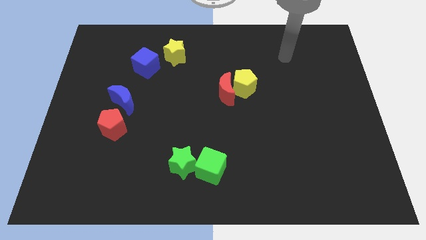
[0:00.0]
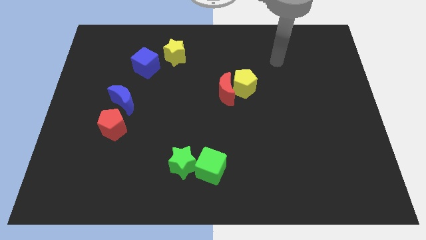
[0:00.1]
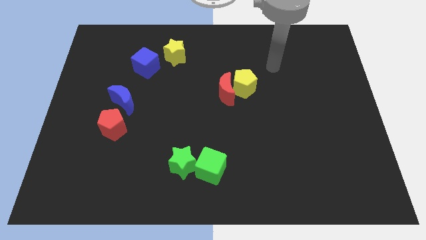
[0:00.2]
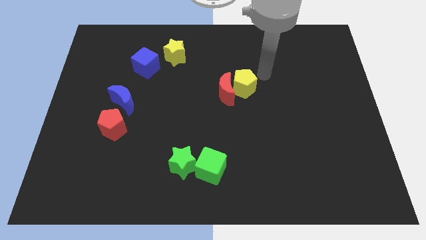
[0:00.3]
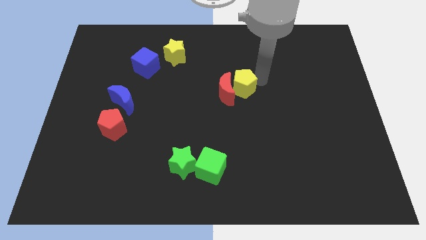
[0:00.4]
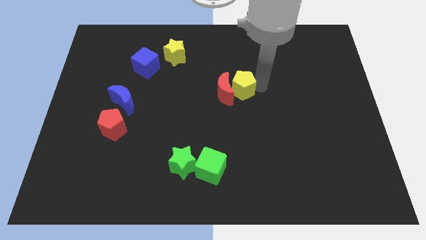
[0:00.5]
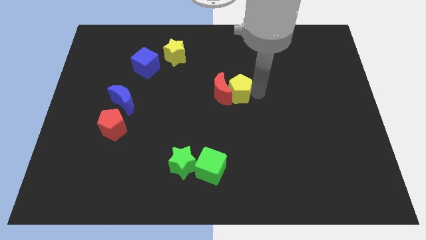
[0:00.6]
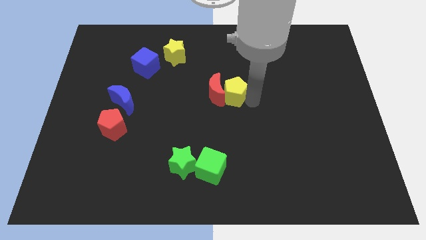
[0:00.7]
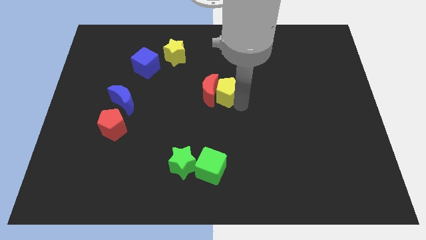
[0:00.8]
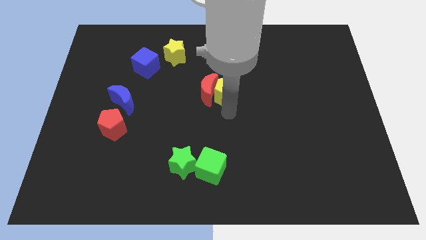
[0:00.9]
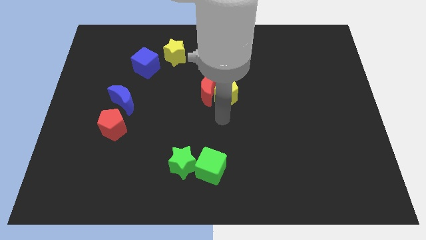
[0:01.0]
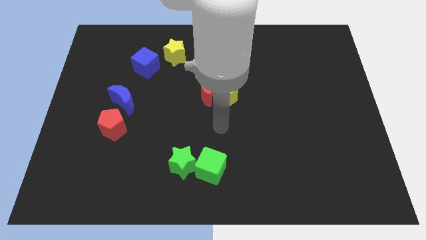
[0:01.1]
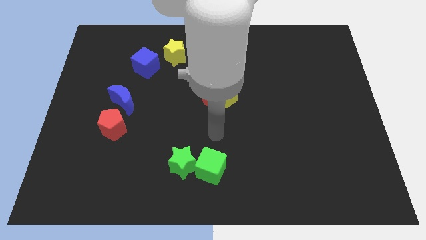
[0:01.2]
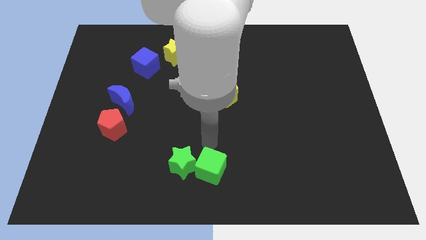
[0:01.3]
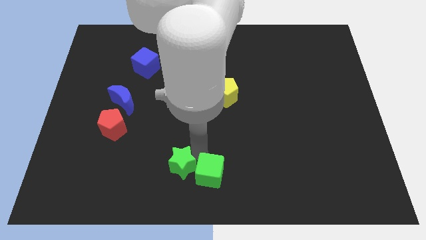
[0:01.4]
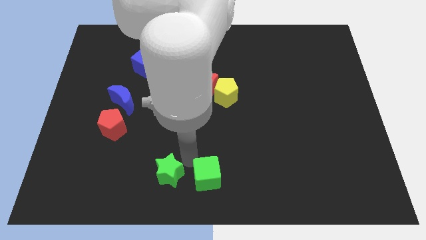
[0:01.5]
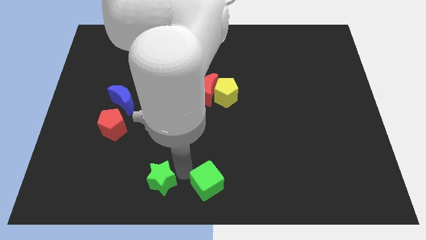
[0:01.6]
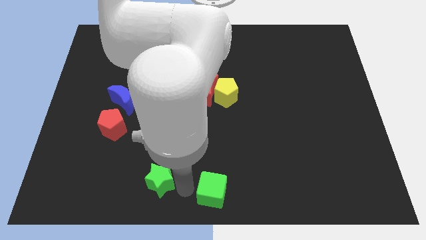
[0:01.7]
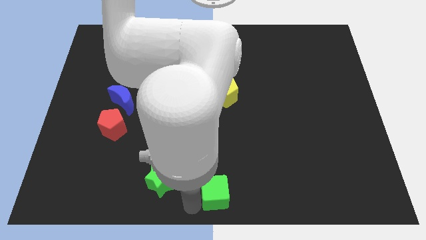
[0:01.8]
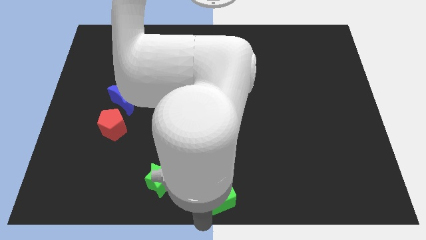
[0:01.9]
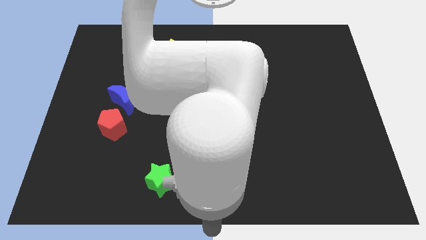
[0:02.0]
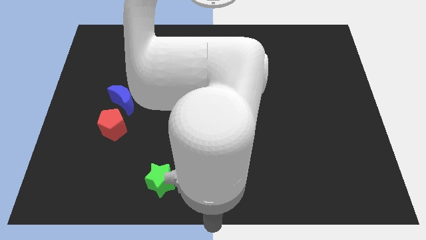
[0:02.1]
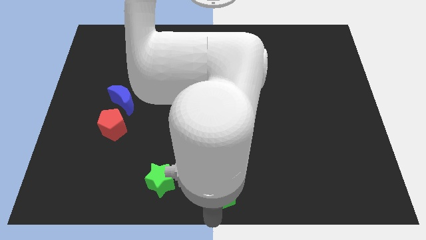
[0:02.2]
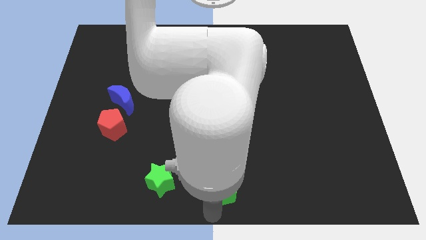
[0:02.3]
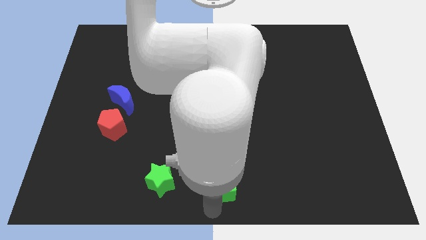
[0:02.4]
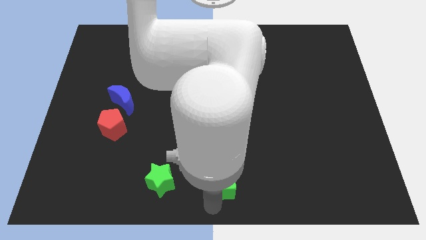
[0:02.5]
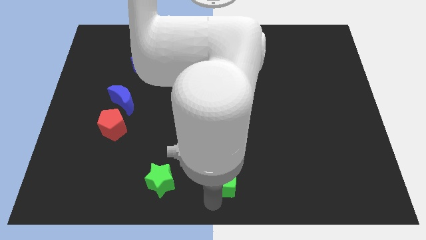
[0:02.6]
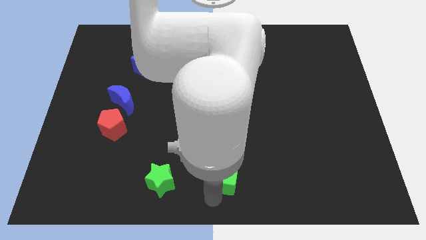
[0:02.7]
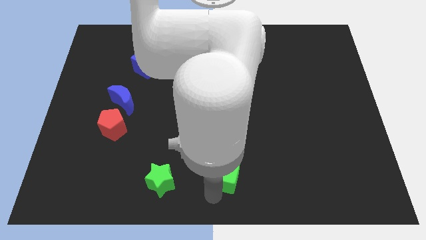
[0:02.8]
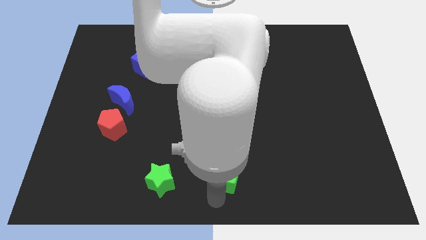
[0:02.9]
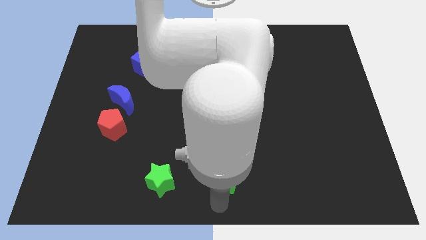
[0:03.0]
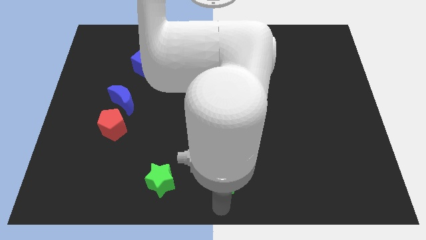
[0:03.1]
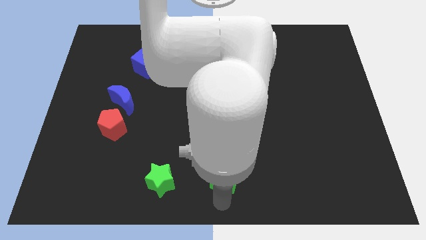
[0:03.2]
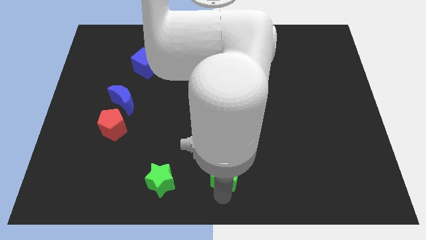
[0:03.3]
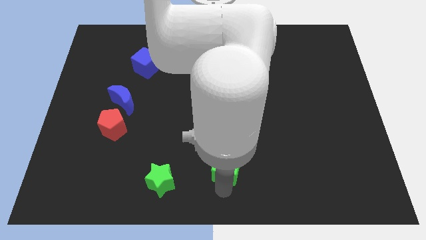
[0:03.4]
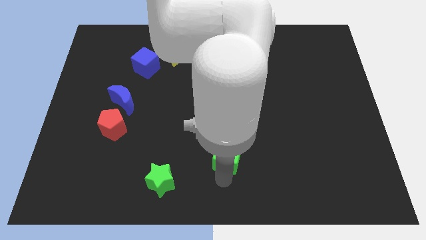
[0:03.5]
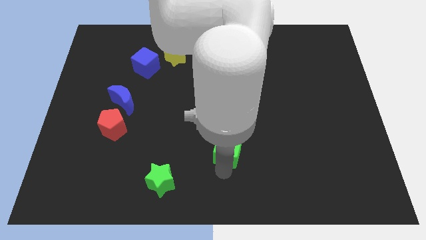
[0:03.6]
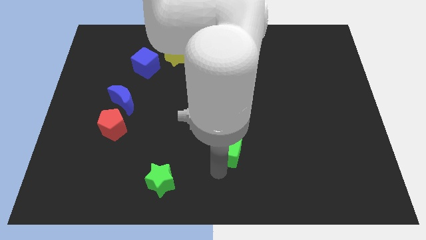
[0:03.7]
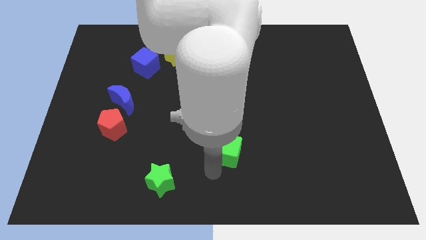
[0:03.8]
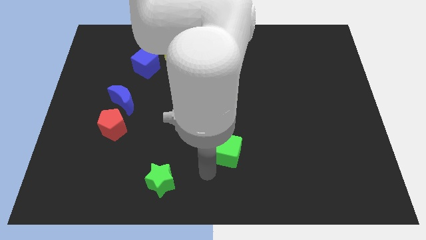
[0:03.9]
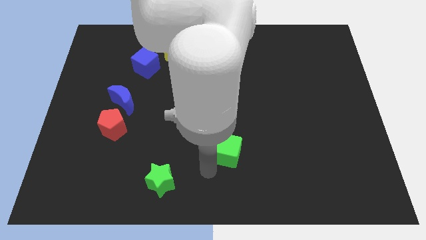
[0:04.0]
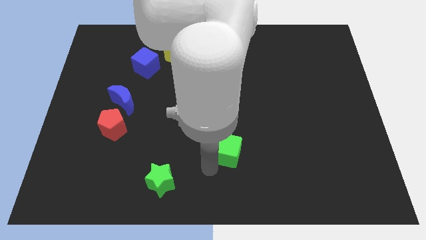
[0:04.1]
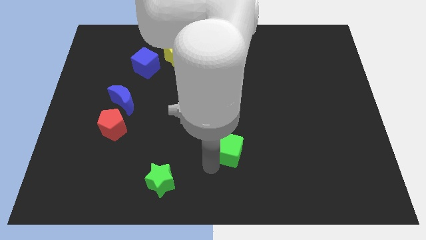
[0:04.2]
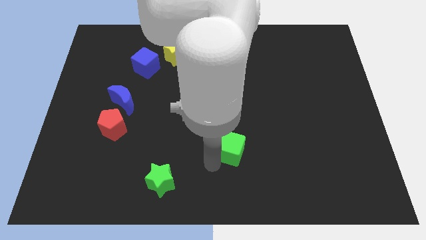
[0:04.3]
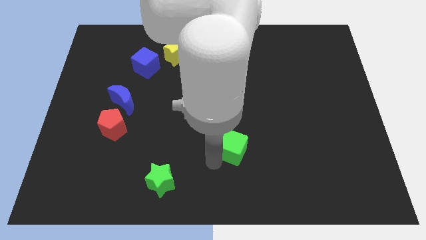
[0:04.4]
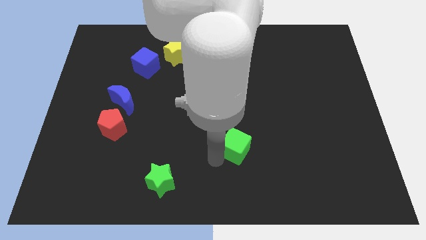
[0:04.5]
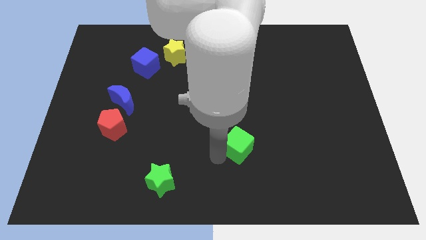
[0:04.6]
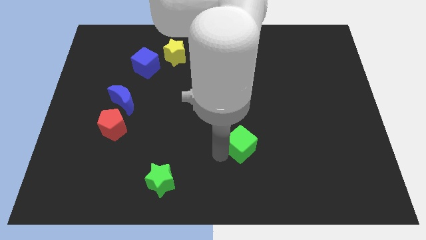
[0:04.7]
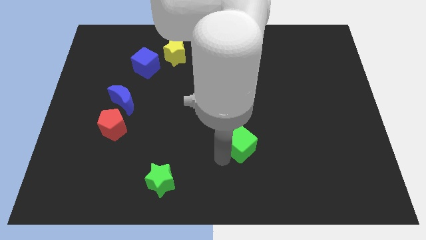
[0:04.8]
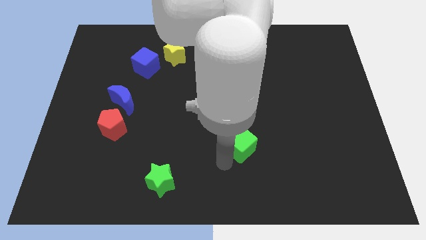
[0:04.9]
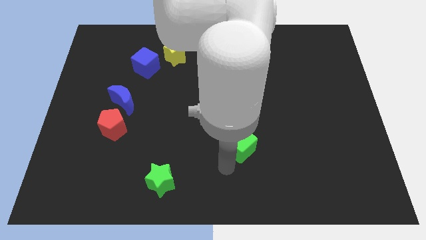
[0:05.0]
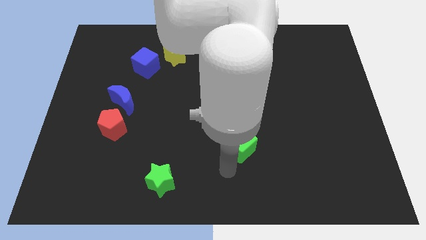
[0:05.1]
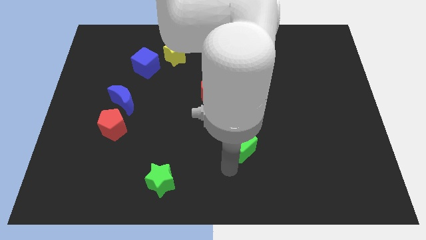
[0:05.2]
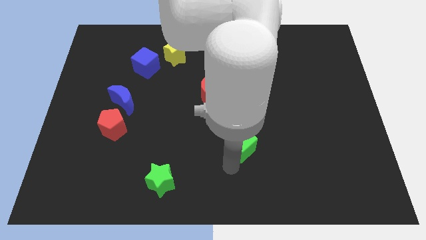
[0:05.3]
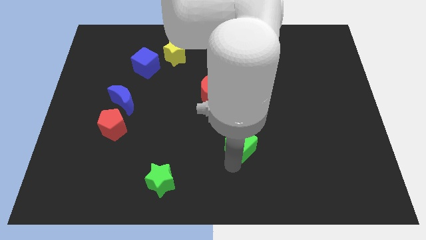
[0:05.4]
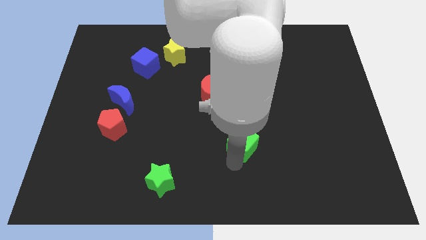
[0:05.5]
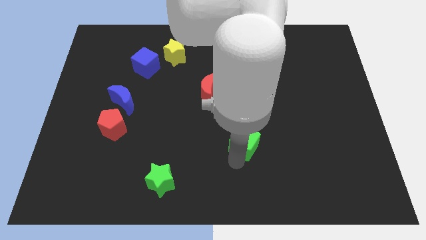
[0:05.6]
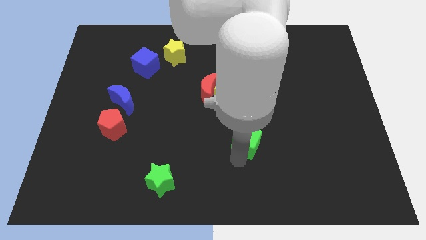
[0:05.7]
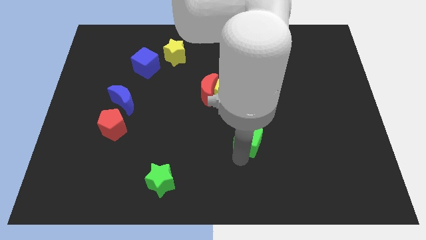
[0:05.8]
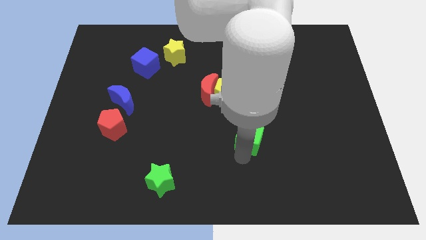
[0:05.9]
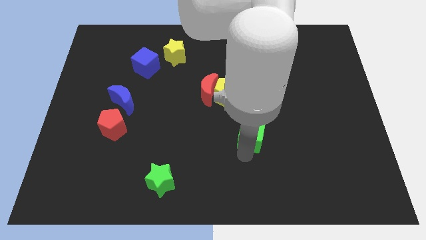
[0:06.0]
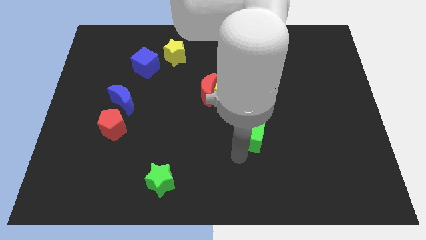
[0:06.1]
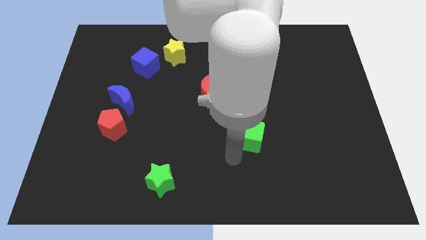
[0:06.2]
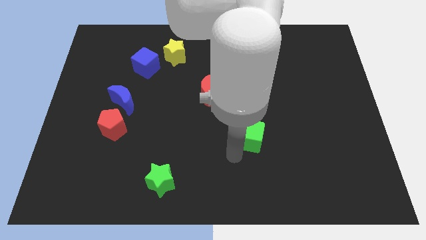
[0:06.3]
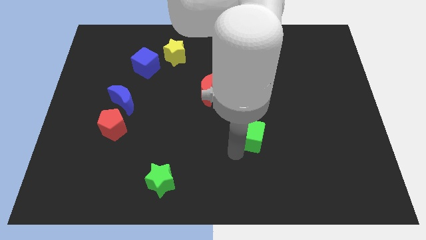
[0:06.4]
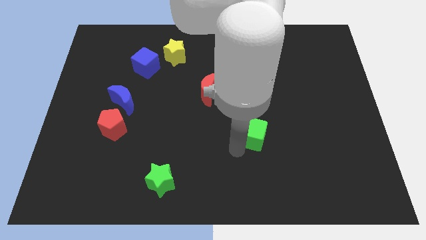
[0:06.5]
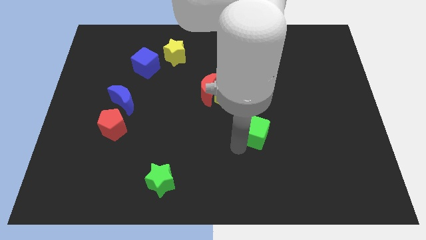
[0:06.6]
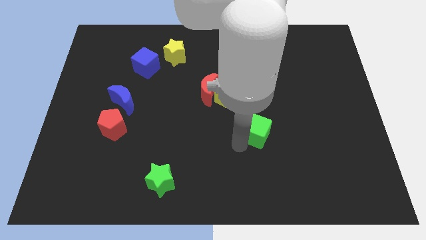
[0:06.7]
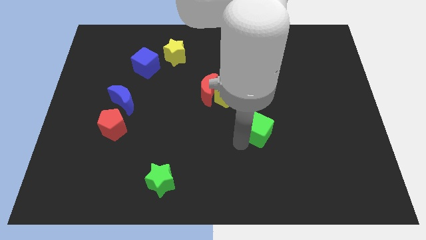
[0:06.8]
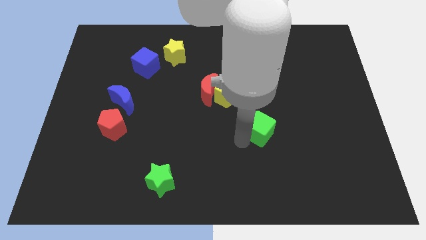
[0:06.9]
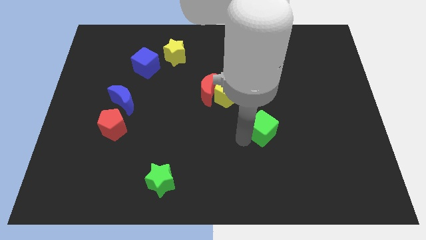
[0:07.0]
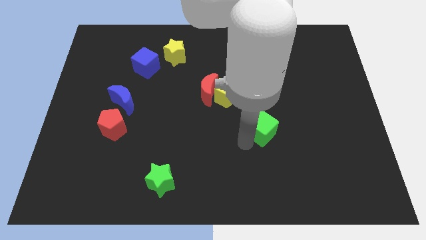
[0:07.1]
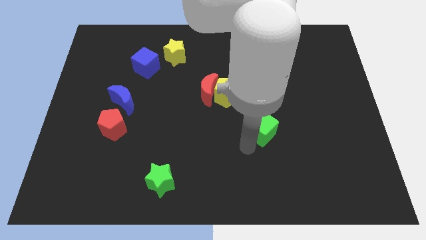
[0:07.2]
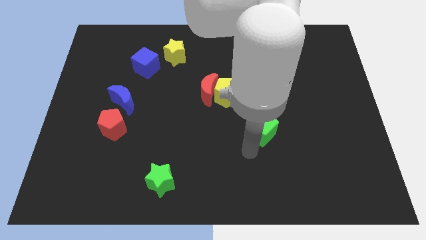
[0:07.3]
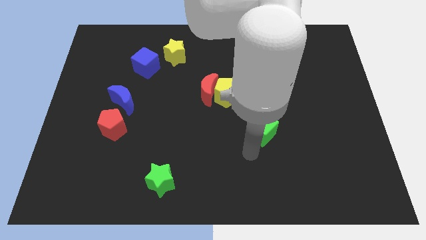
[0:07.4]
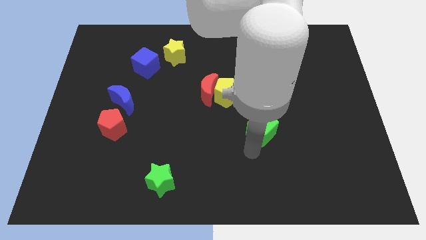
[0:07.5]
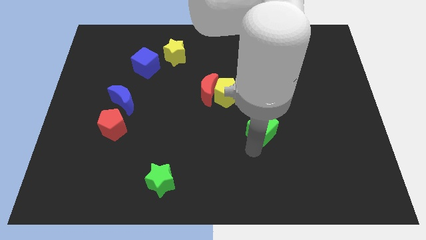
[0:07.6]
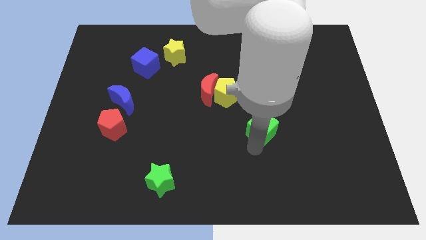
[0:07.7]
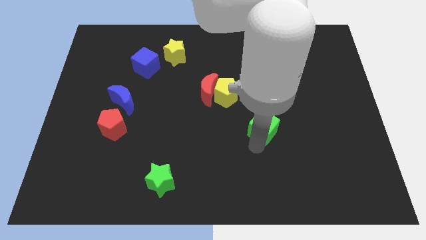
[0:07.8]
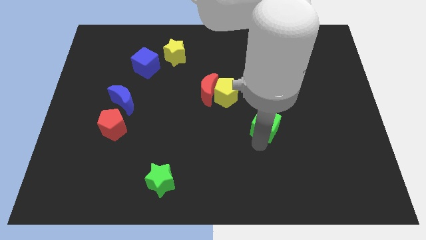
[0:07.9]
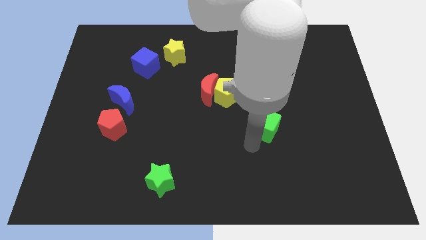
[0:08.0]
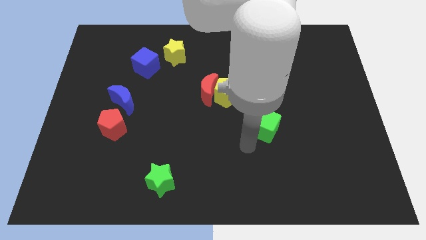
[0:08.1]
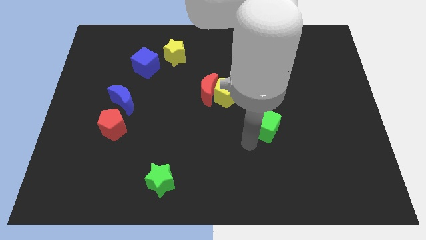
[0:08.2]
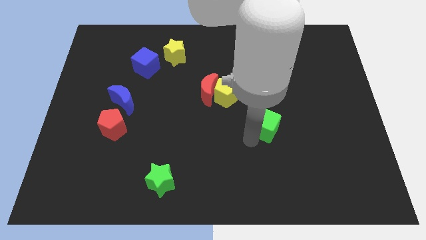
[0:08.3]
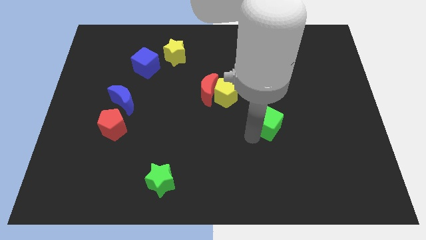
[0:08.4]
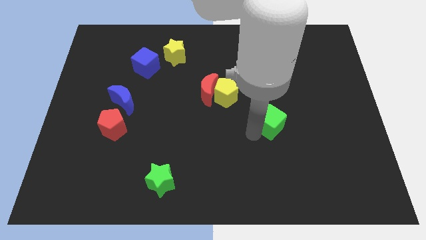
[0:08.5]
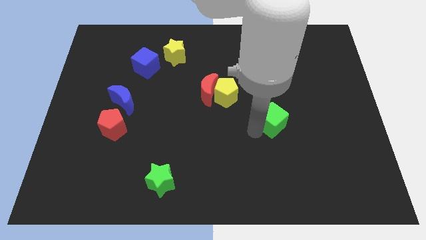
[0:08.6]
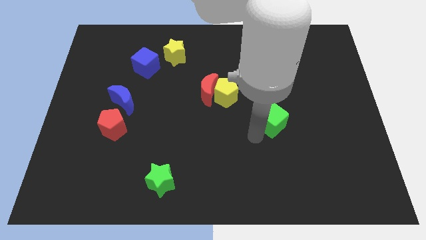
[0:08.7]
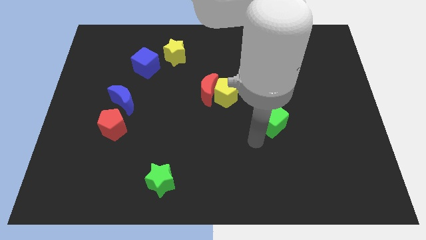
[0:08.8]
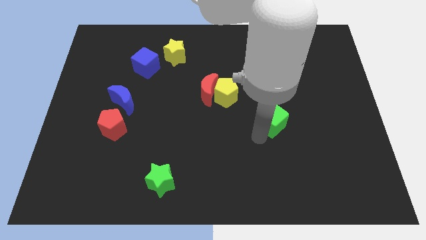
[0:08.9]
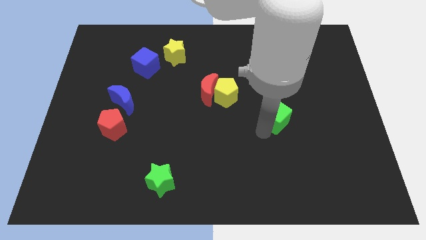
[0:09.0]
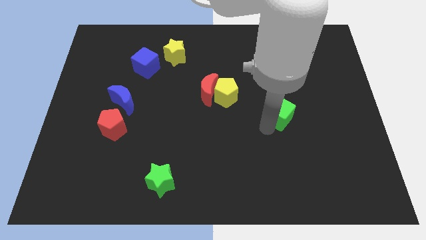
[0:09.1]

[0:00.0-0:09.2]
move the green cube diagonally up and to the right
